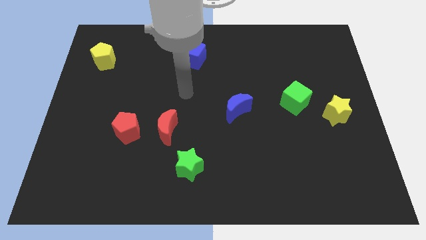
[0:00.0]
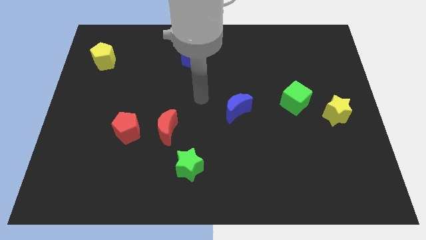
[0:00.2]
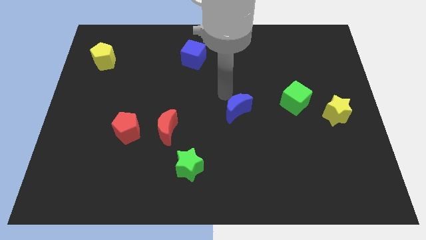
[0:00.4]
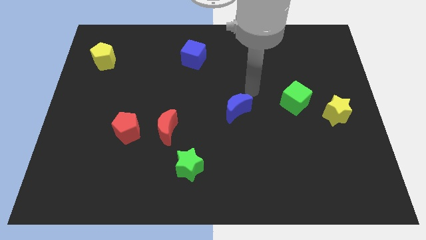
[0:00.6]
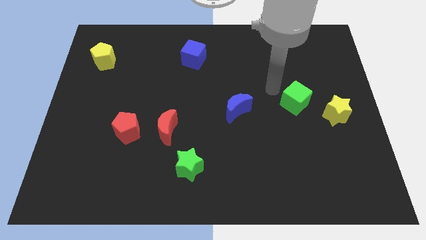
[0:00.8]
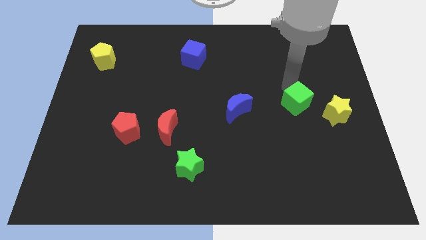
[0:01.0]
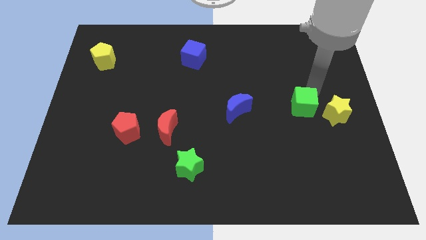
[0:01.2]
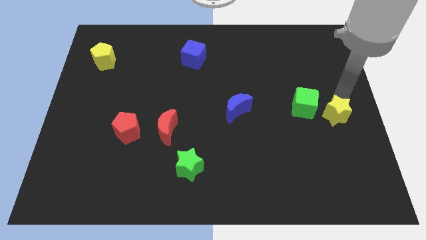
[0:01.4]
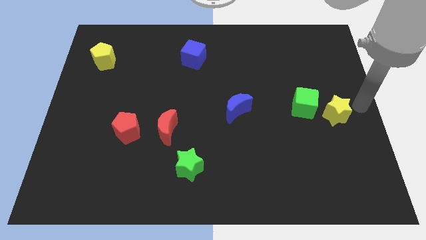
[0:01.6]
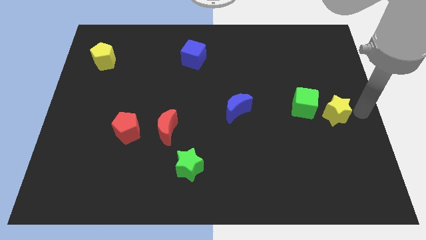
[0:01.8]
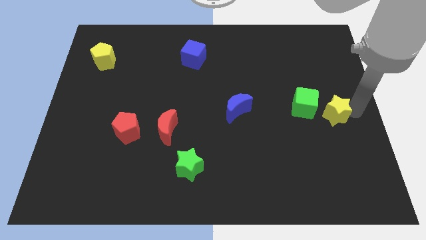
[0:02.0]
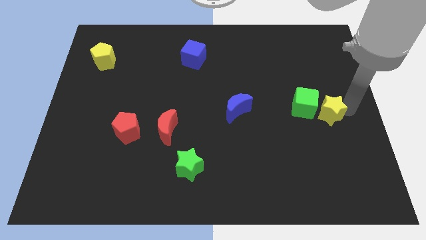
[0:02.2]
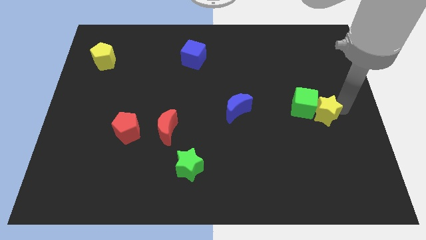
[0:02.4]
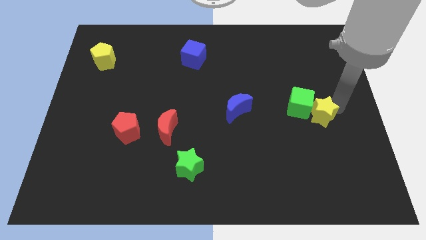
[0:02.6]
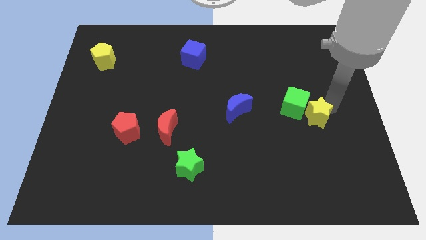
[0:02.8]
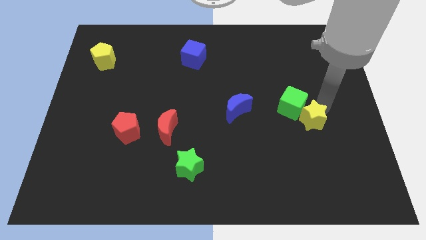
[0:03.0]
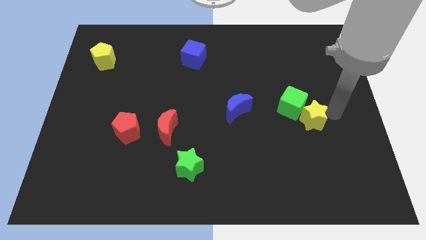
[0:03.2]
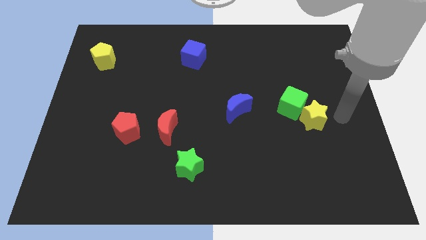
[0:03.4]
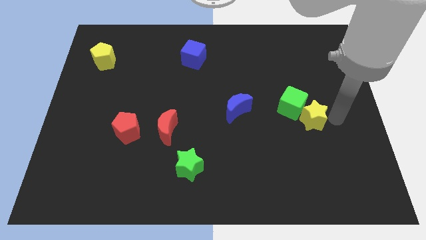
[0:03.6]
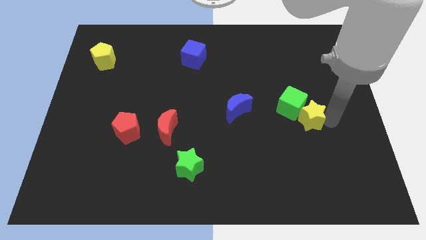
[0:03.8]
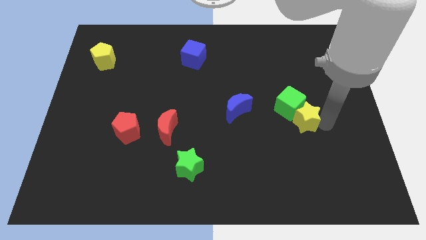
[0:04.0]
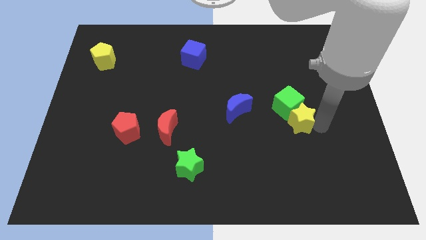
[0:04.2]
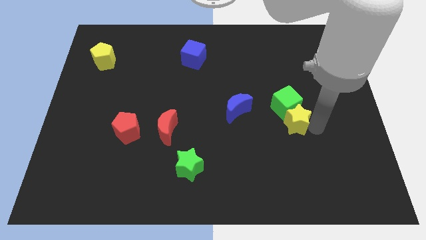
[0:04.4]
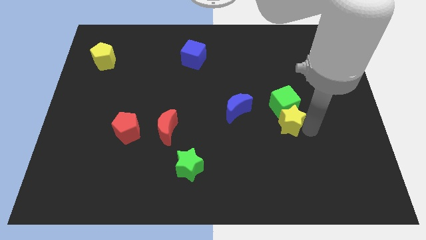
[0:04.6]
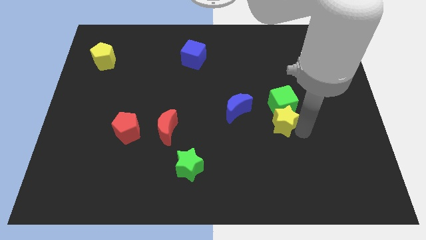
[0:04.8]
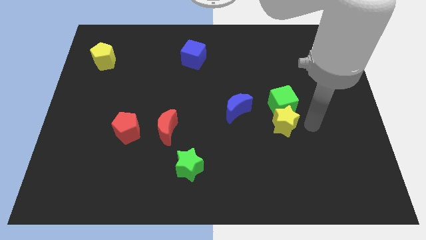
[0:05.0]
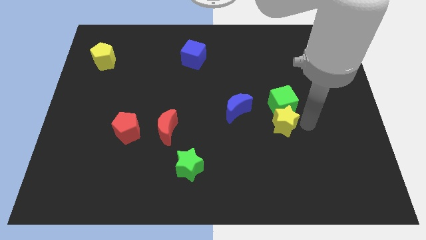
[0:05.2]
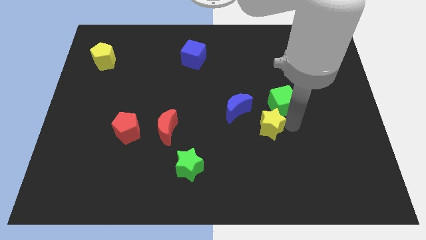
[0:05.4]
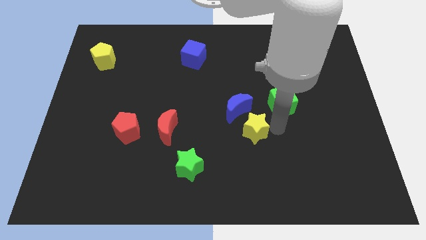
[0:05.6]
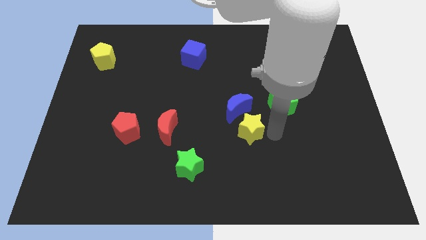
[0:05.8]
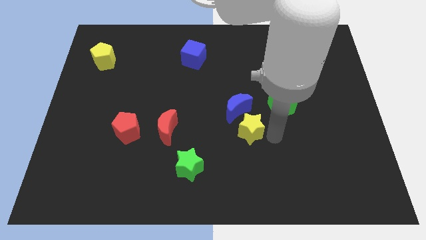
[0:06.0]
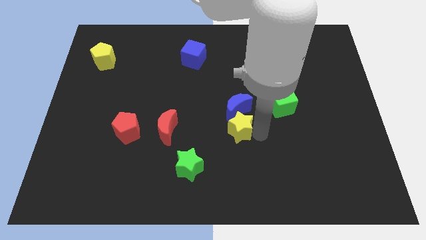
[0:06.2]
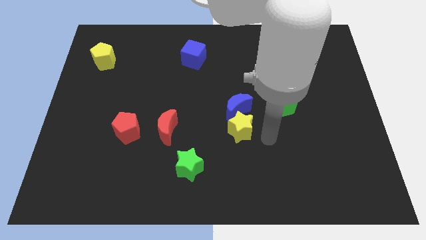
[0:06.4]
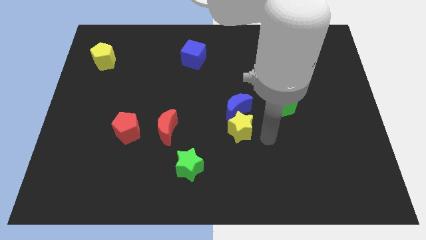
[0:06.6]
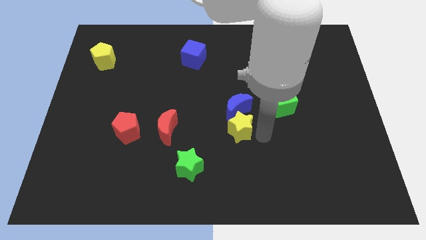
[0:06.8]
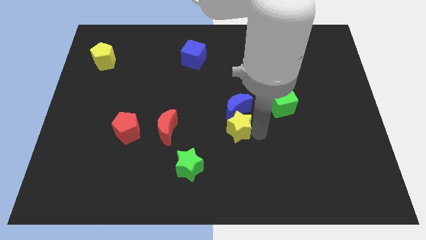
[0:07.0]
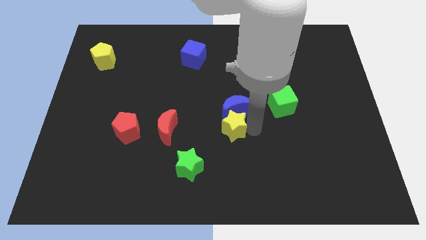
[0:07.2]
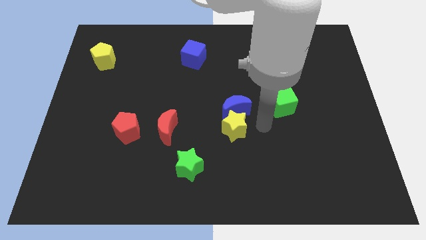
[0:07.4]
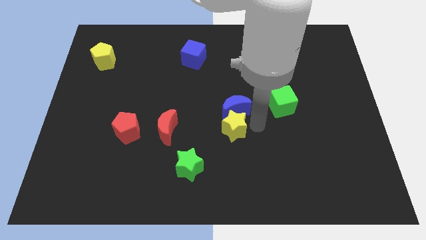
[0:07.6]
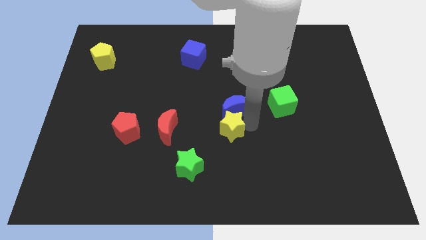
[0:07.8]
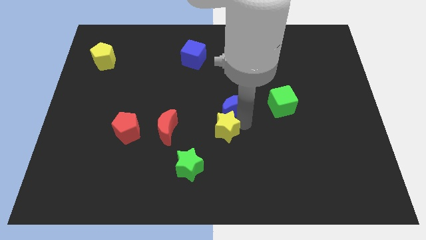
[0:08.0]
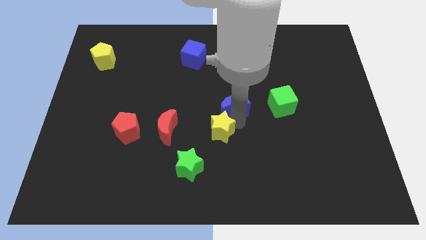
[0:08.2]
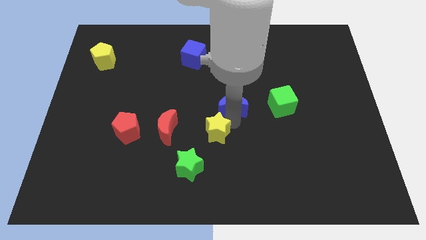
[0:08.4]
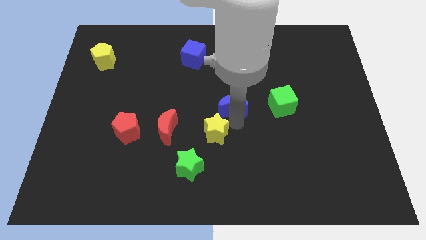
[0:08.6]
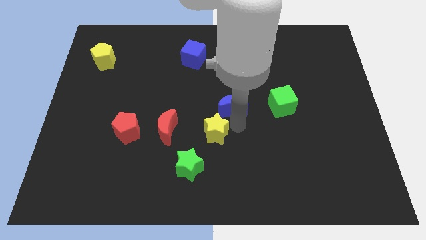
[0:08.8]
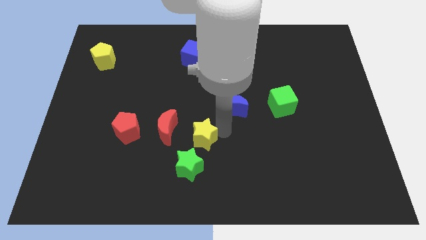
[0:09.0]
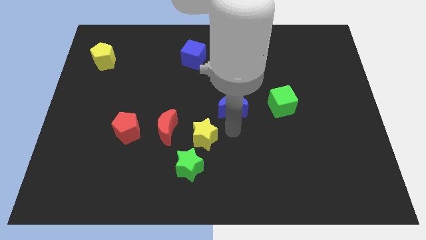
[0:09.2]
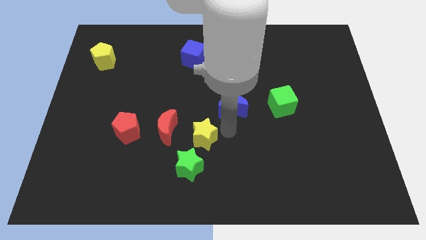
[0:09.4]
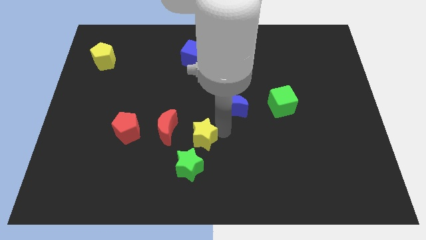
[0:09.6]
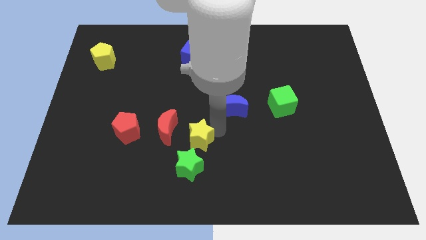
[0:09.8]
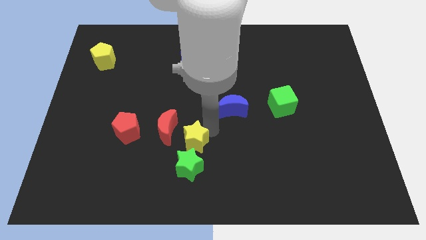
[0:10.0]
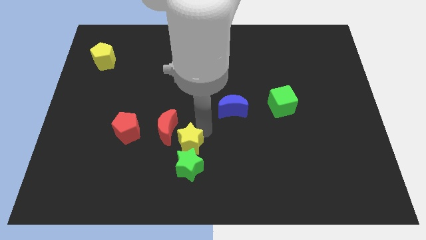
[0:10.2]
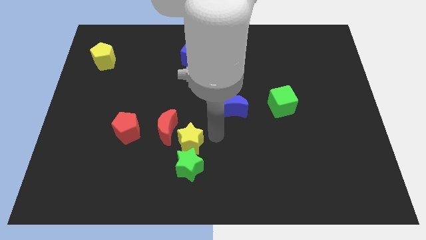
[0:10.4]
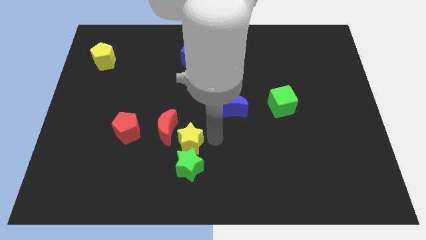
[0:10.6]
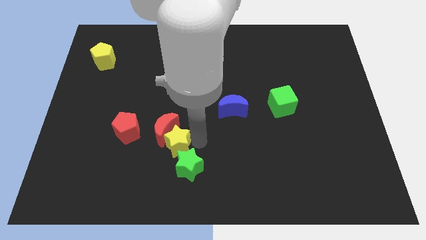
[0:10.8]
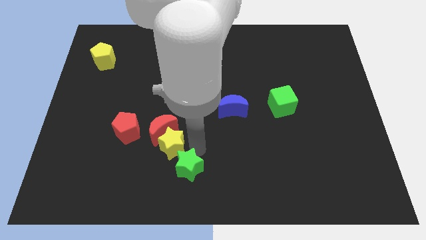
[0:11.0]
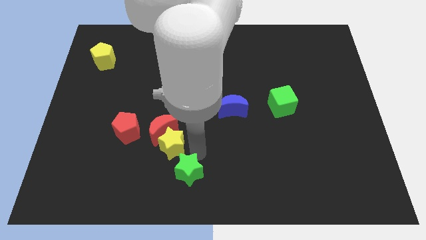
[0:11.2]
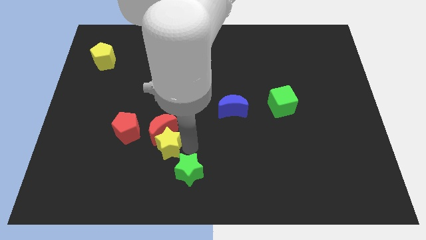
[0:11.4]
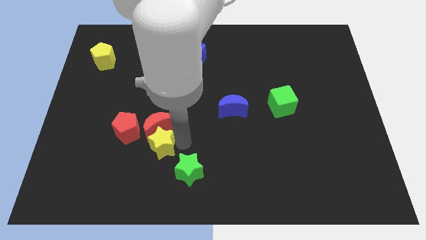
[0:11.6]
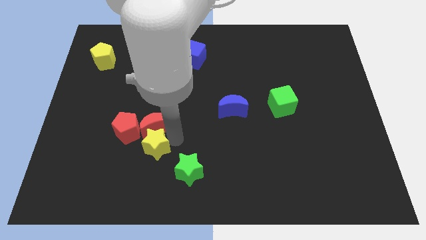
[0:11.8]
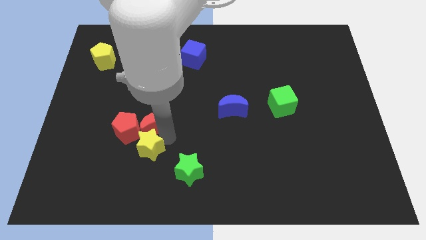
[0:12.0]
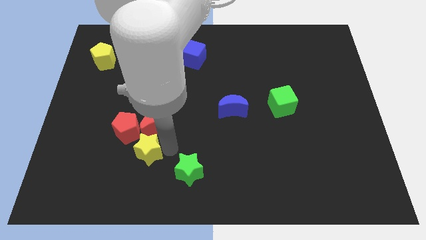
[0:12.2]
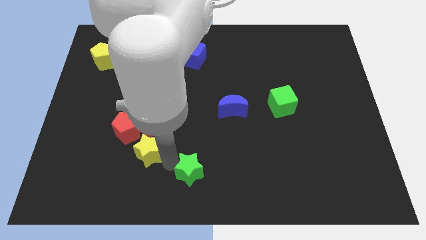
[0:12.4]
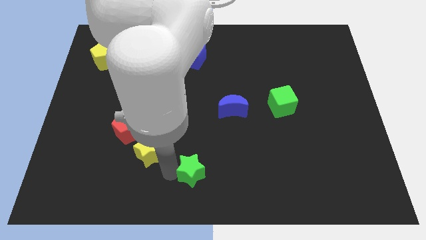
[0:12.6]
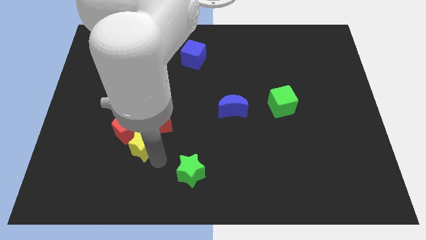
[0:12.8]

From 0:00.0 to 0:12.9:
slide the yellow star to the red pentagon

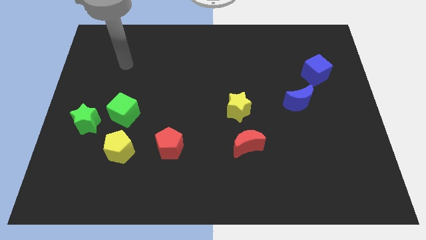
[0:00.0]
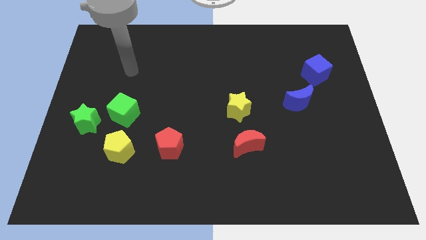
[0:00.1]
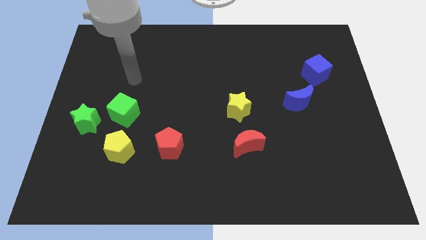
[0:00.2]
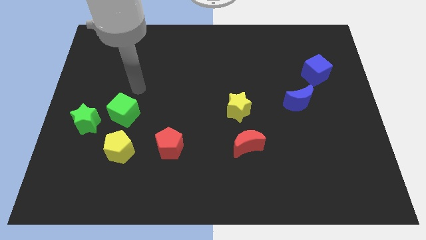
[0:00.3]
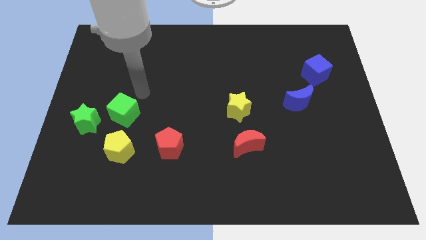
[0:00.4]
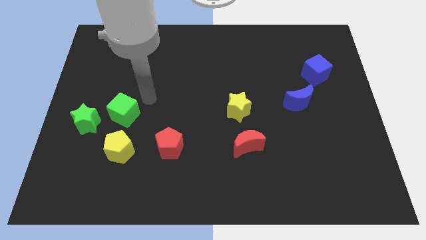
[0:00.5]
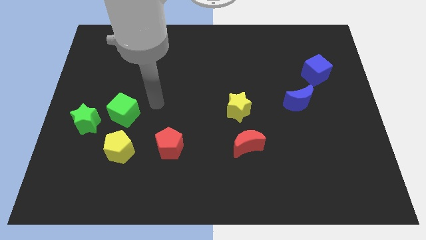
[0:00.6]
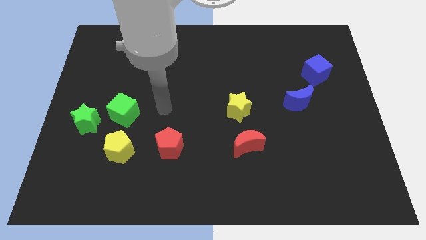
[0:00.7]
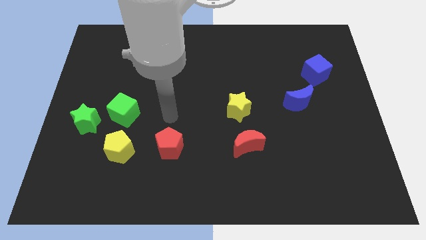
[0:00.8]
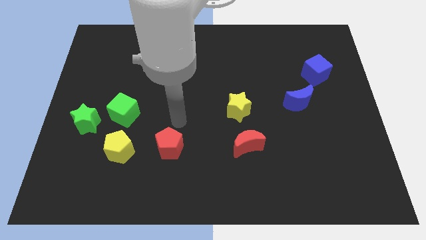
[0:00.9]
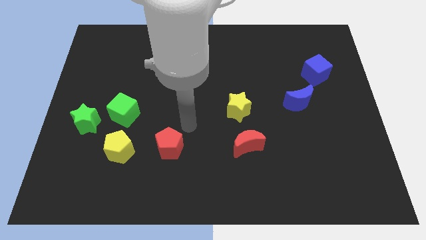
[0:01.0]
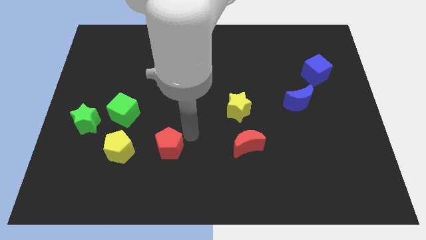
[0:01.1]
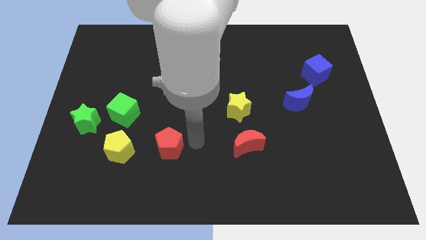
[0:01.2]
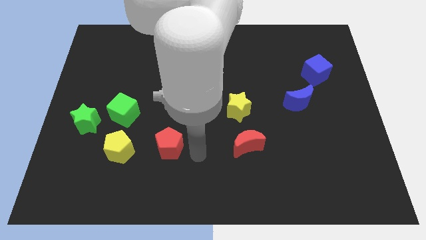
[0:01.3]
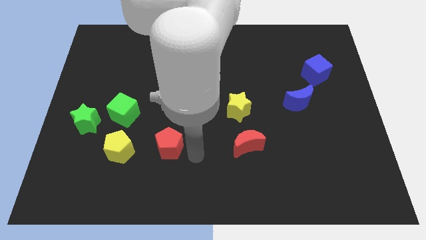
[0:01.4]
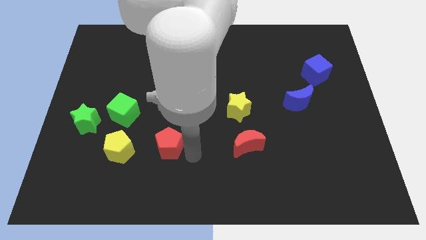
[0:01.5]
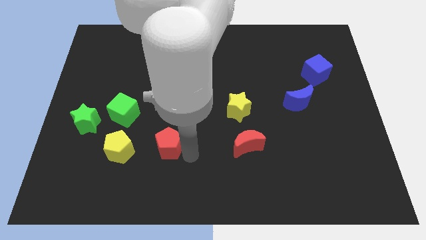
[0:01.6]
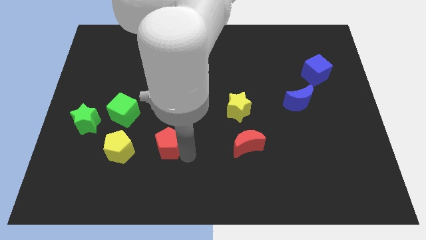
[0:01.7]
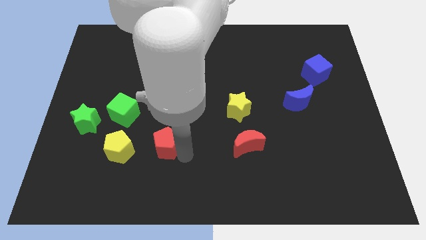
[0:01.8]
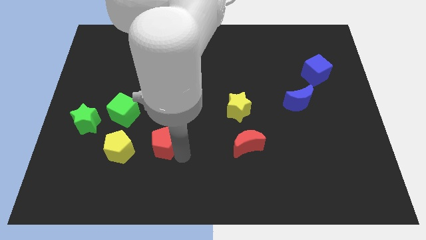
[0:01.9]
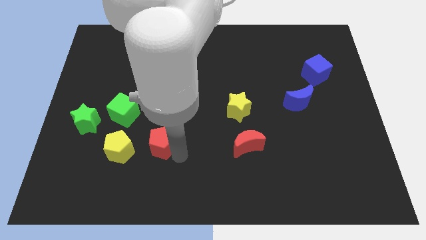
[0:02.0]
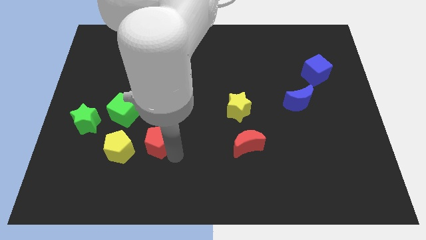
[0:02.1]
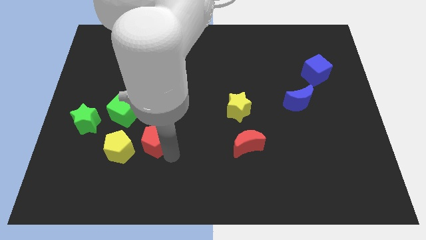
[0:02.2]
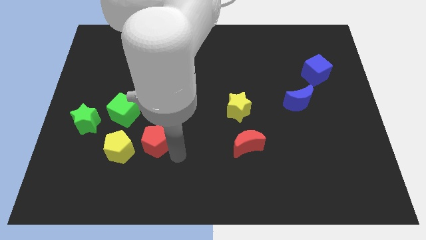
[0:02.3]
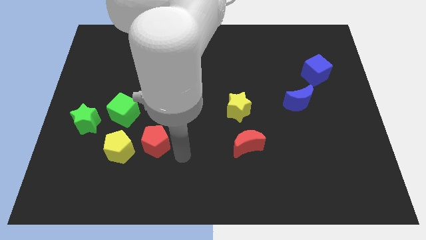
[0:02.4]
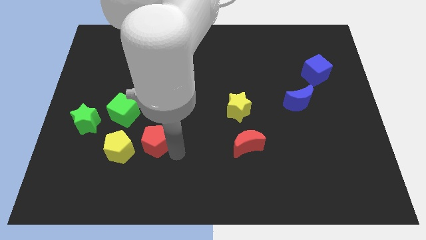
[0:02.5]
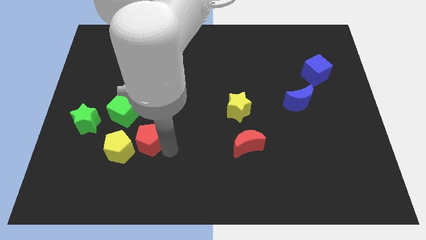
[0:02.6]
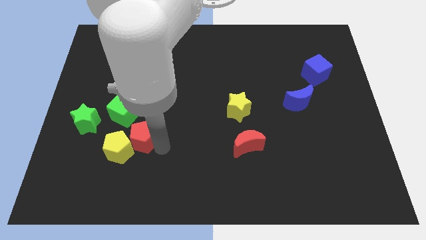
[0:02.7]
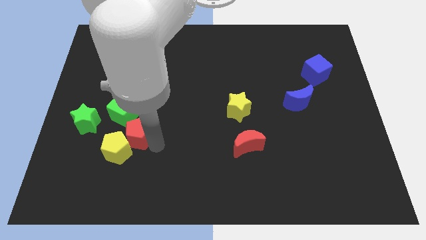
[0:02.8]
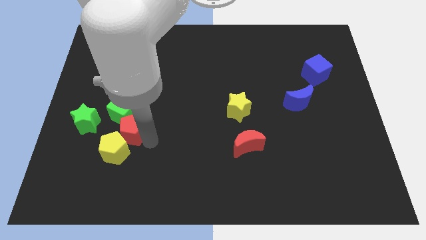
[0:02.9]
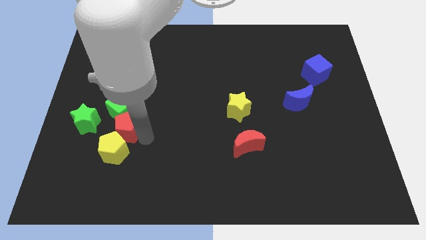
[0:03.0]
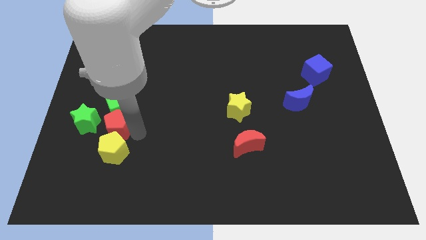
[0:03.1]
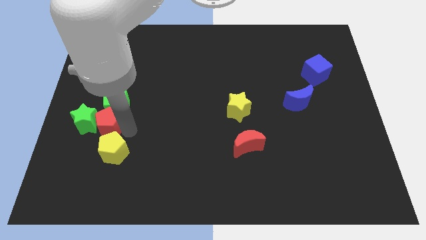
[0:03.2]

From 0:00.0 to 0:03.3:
move the red pentagon towards the green star
